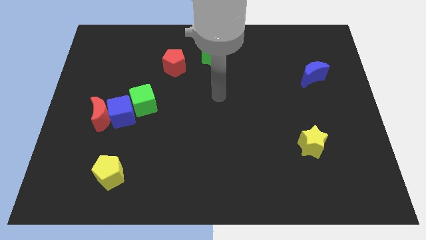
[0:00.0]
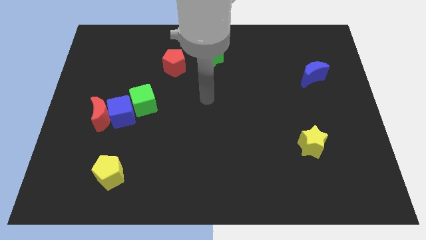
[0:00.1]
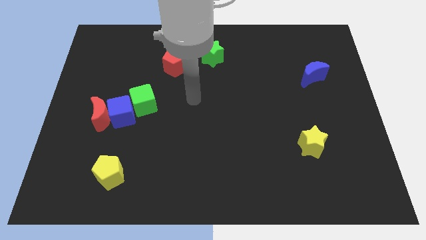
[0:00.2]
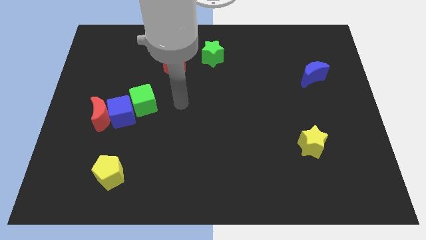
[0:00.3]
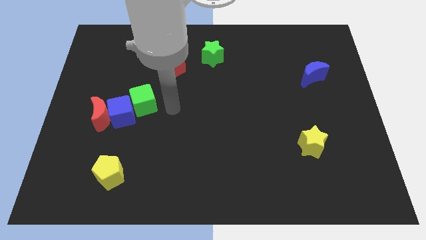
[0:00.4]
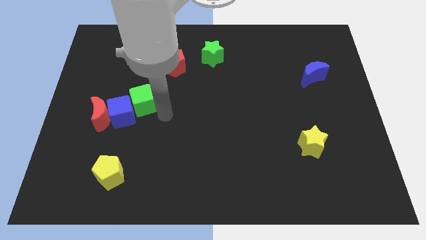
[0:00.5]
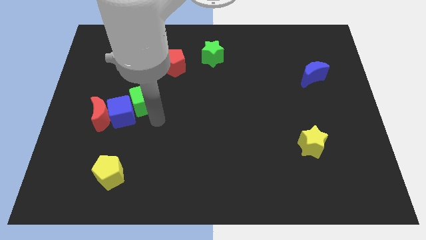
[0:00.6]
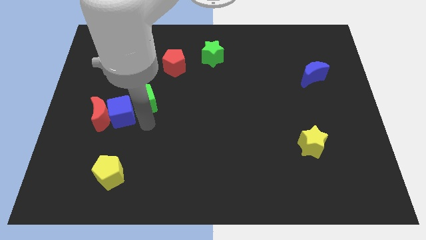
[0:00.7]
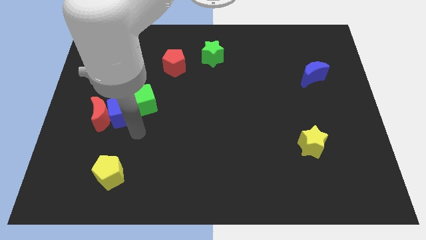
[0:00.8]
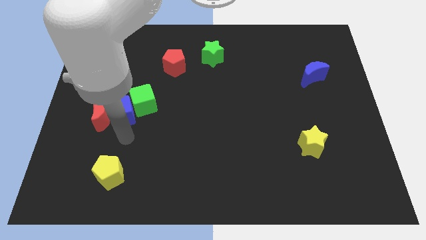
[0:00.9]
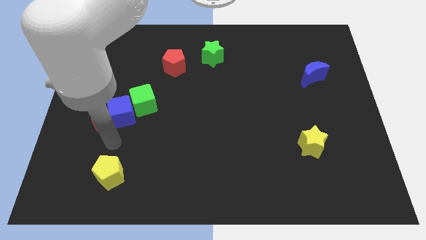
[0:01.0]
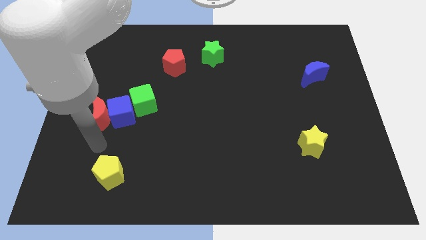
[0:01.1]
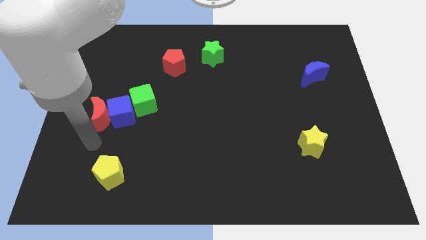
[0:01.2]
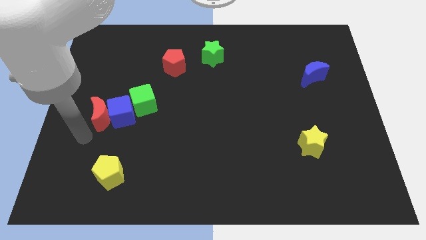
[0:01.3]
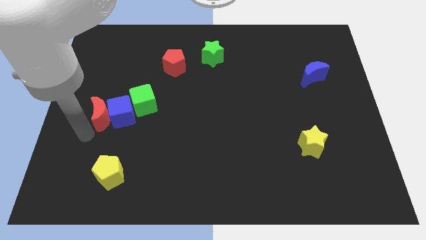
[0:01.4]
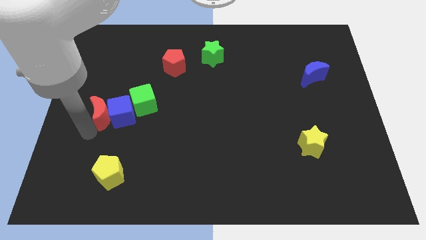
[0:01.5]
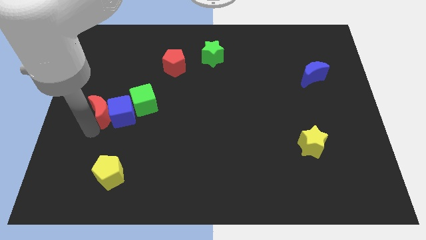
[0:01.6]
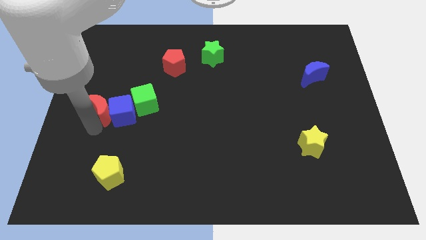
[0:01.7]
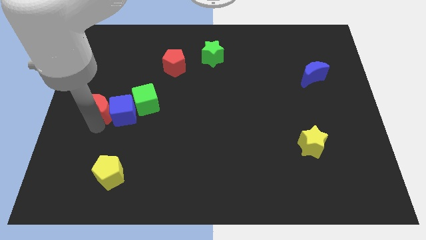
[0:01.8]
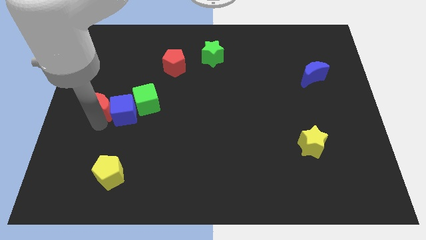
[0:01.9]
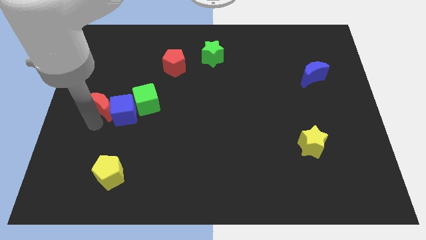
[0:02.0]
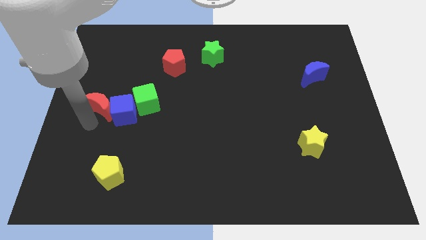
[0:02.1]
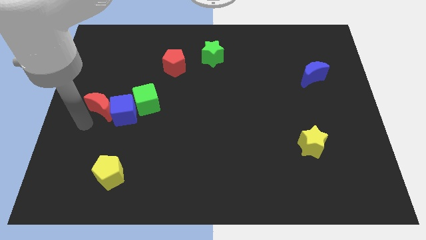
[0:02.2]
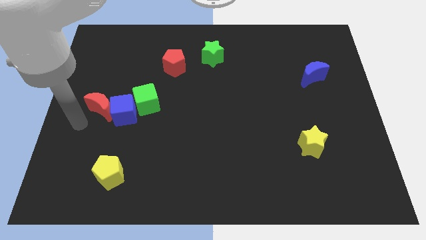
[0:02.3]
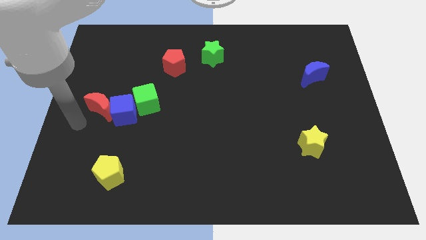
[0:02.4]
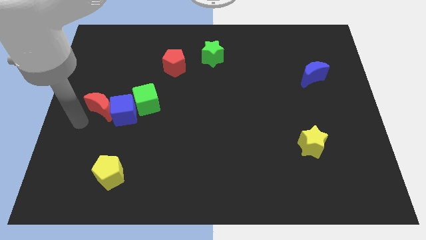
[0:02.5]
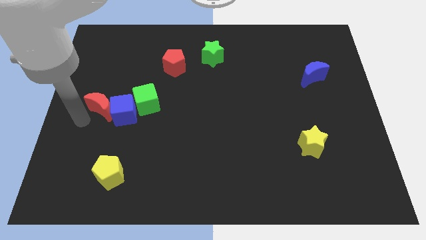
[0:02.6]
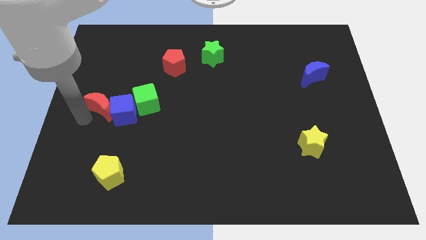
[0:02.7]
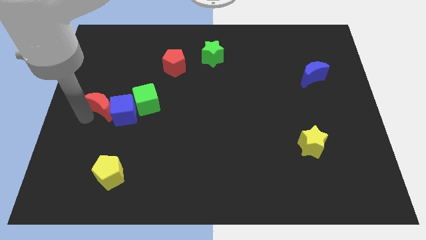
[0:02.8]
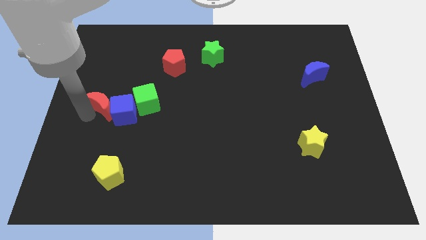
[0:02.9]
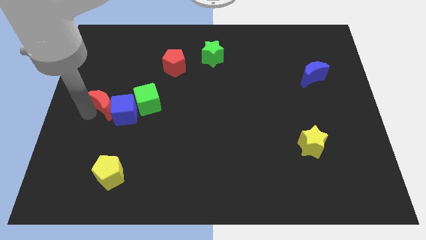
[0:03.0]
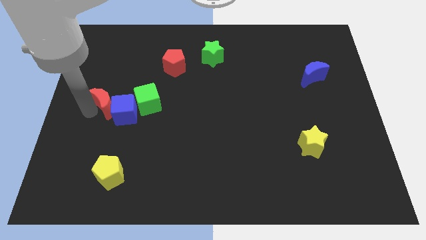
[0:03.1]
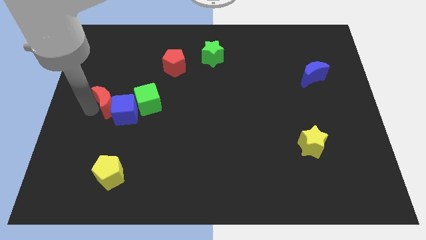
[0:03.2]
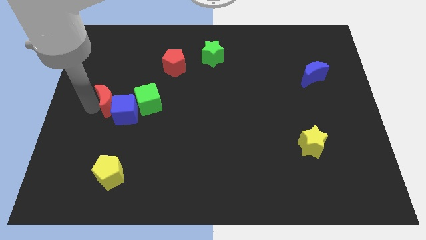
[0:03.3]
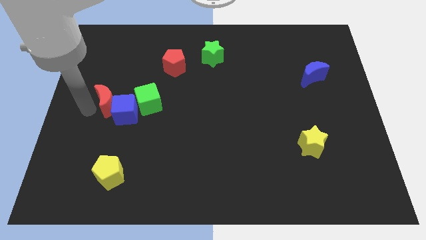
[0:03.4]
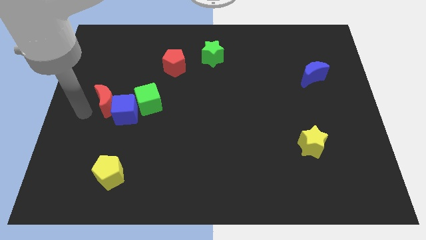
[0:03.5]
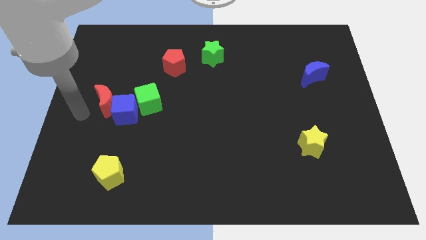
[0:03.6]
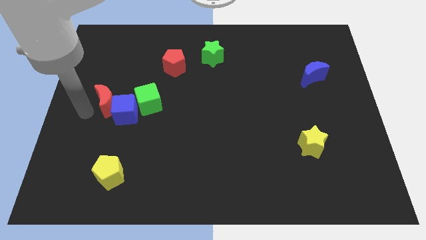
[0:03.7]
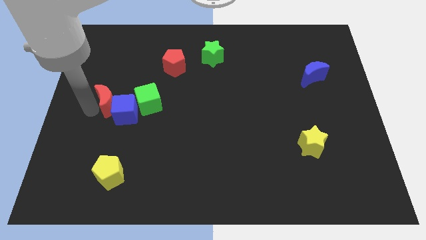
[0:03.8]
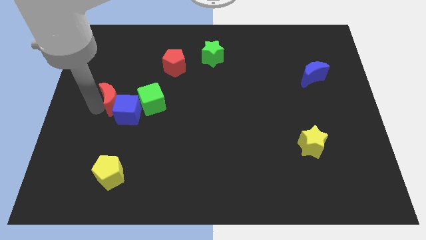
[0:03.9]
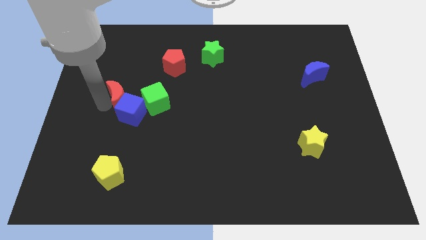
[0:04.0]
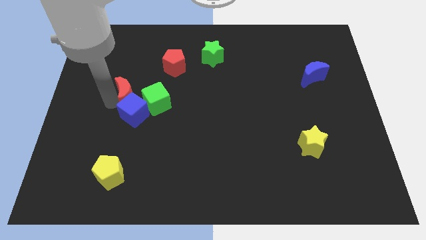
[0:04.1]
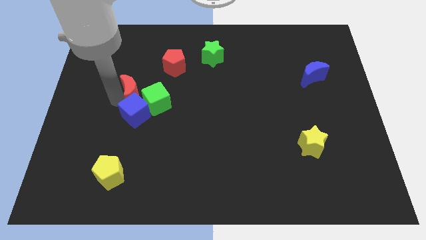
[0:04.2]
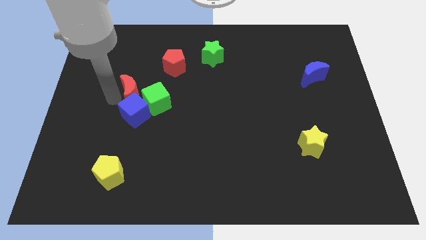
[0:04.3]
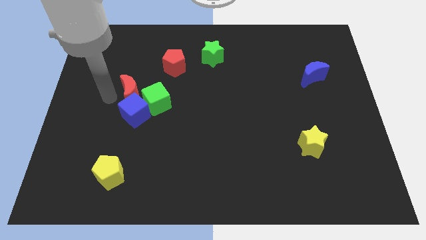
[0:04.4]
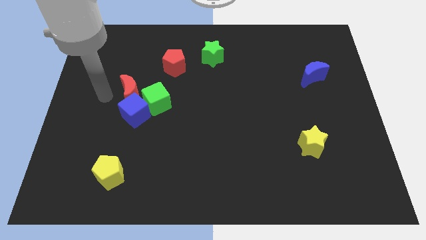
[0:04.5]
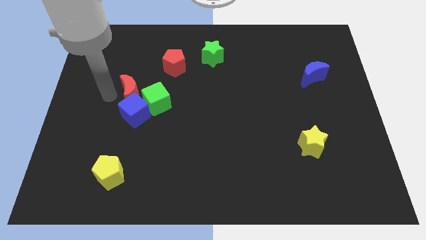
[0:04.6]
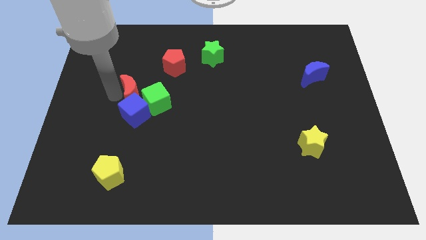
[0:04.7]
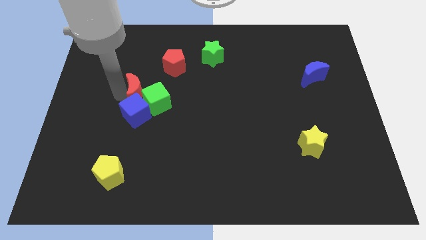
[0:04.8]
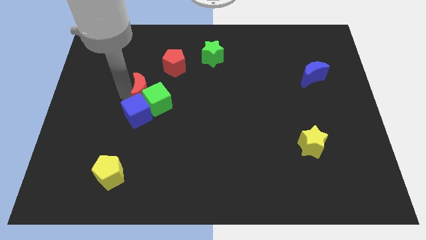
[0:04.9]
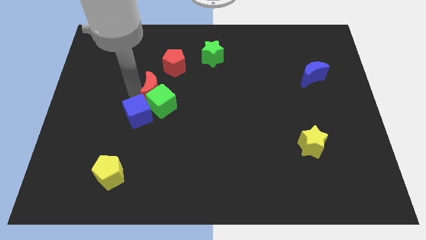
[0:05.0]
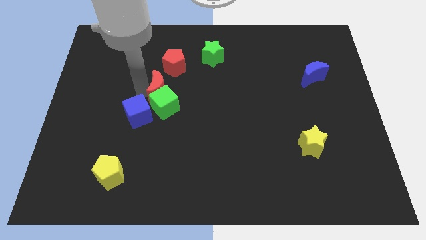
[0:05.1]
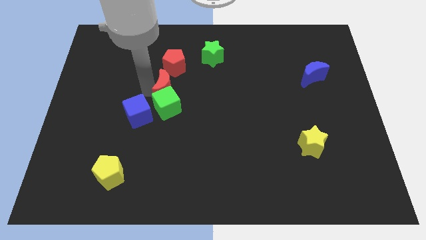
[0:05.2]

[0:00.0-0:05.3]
put the red moon to the middle of the board

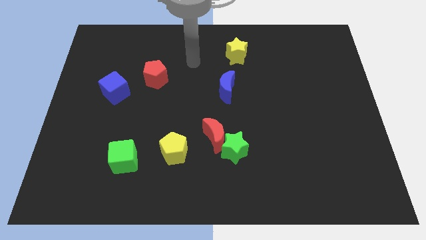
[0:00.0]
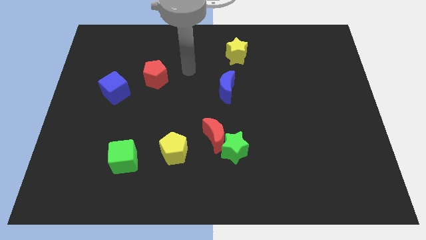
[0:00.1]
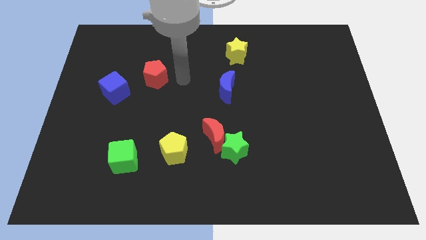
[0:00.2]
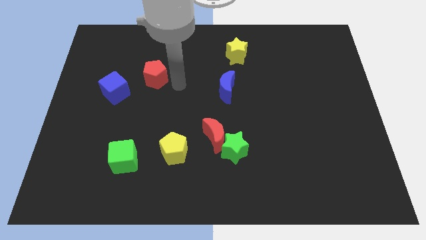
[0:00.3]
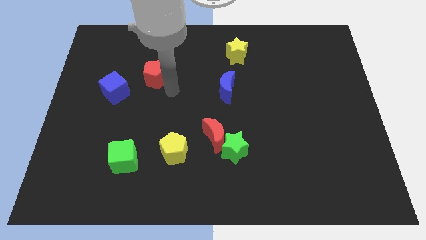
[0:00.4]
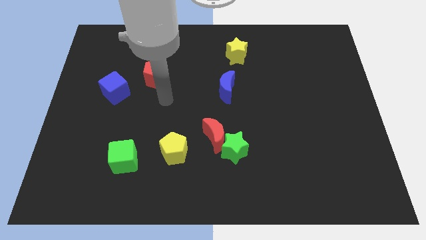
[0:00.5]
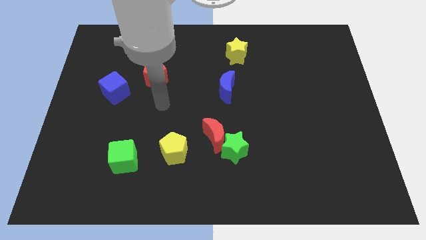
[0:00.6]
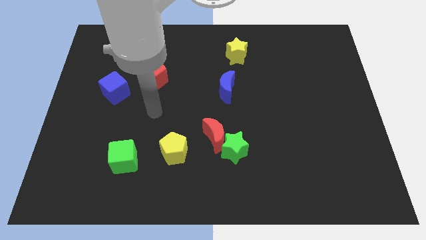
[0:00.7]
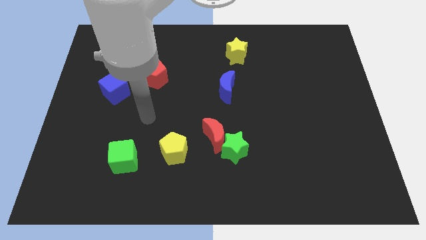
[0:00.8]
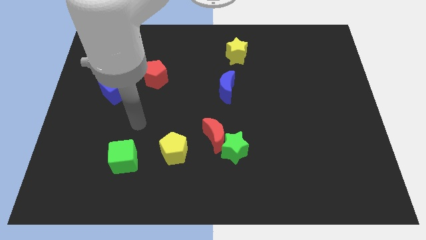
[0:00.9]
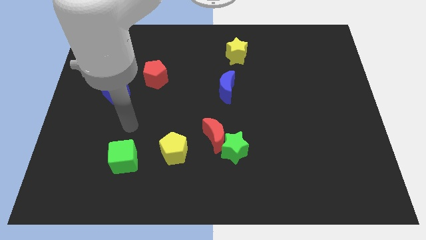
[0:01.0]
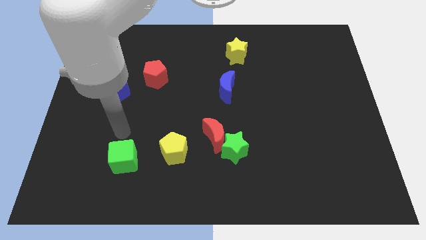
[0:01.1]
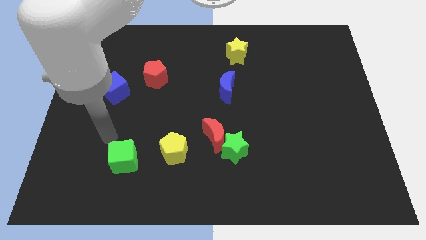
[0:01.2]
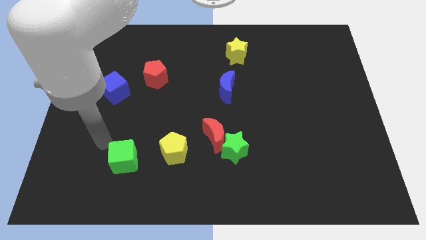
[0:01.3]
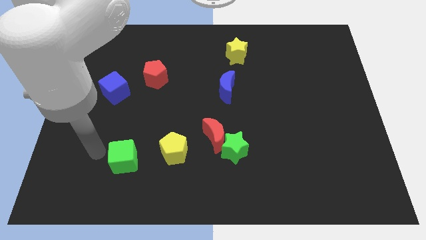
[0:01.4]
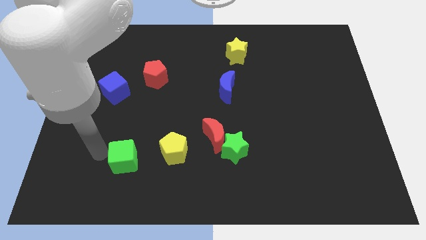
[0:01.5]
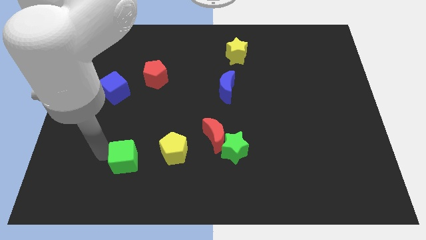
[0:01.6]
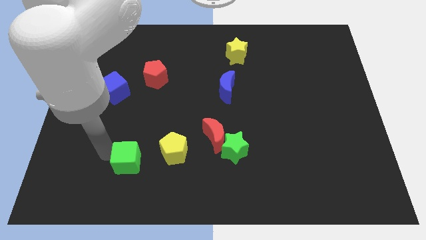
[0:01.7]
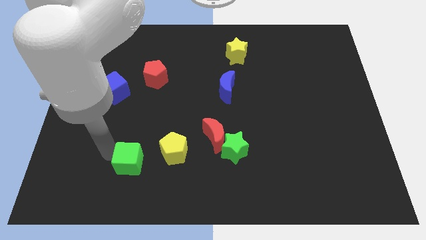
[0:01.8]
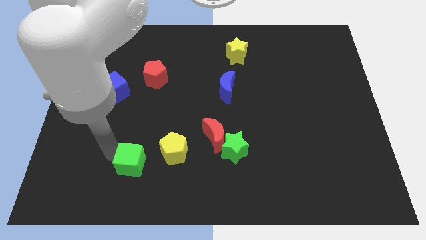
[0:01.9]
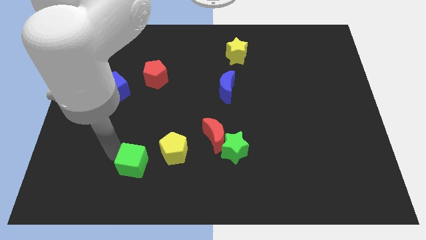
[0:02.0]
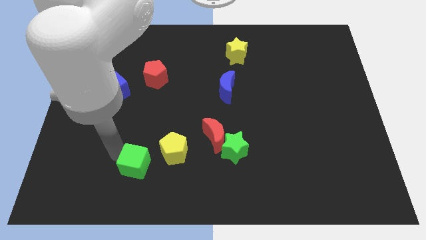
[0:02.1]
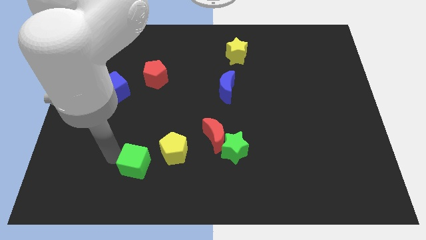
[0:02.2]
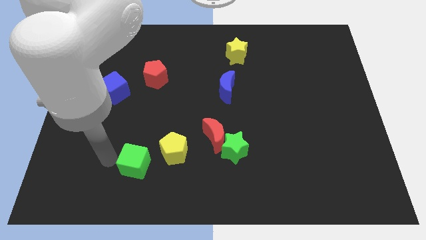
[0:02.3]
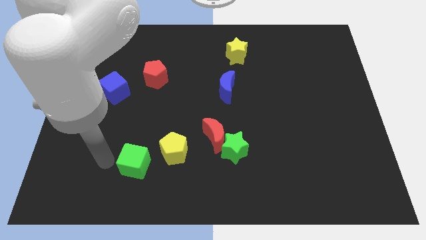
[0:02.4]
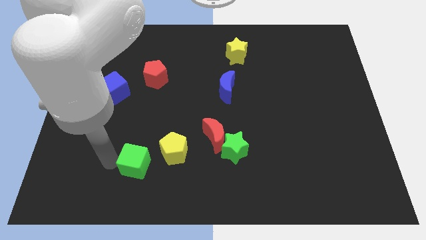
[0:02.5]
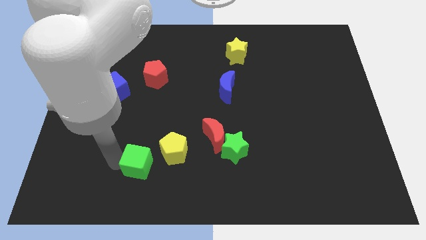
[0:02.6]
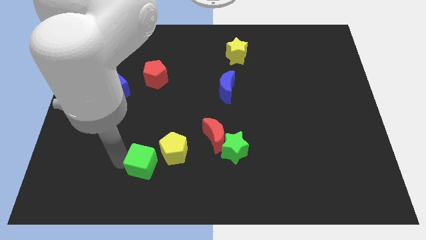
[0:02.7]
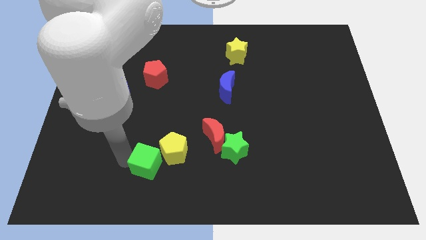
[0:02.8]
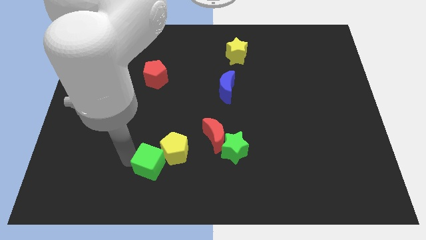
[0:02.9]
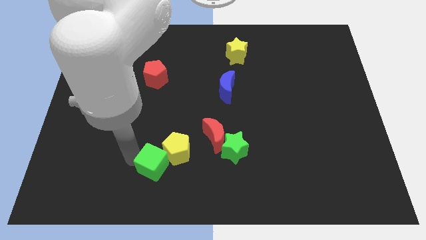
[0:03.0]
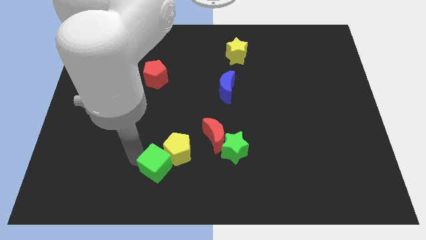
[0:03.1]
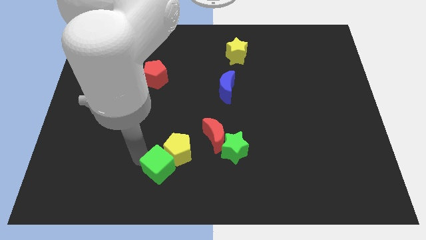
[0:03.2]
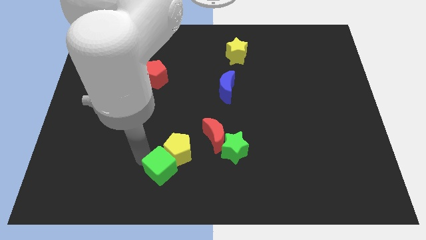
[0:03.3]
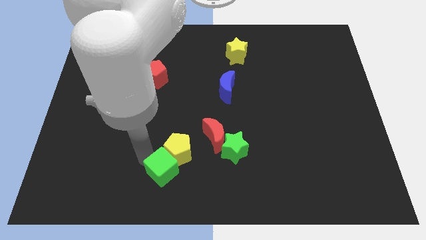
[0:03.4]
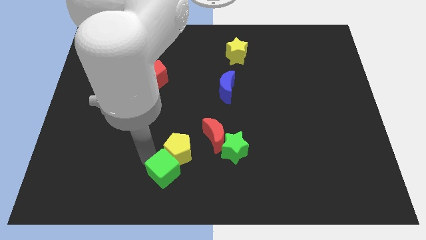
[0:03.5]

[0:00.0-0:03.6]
slide the green cube to the bottom
